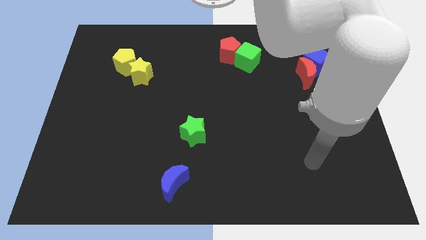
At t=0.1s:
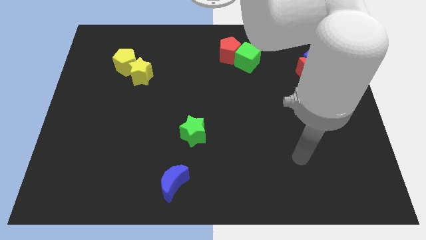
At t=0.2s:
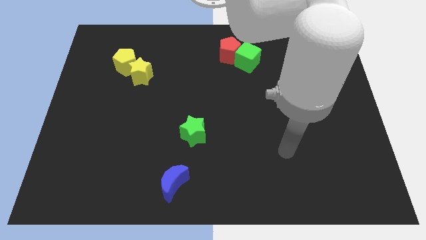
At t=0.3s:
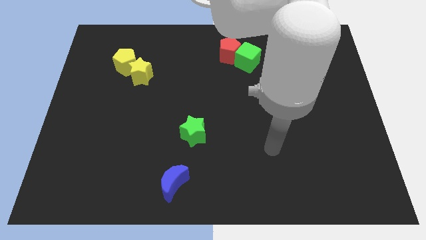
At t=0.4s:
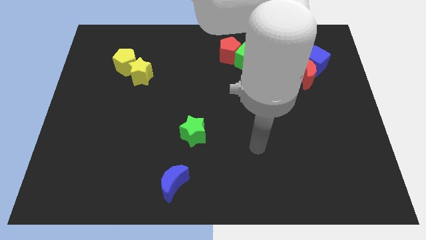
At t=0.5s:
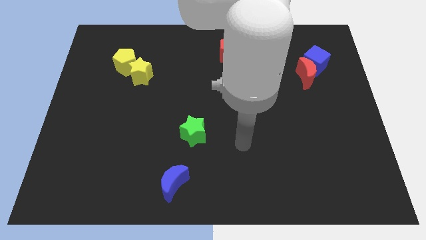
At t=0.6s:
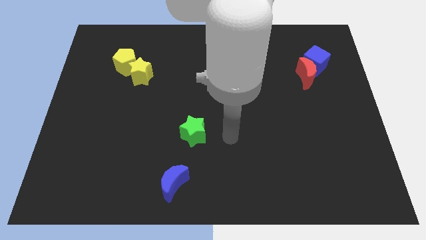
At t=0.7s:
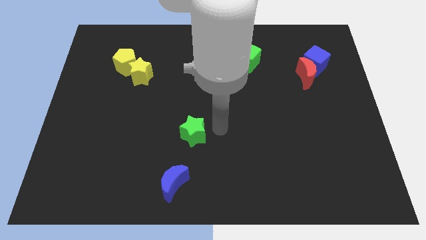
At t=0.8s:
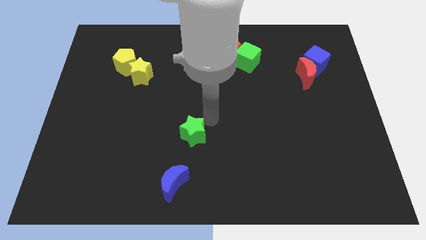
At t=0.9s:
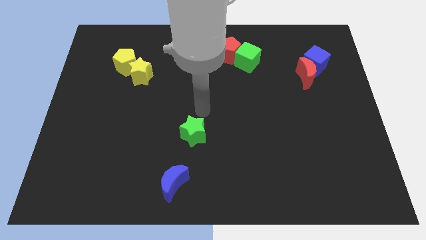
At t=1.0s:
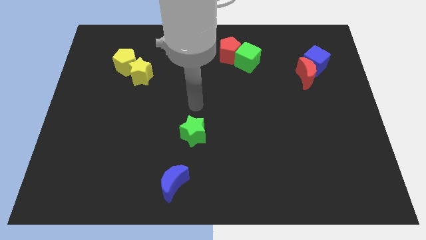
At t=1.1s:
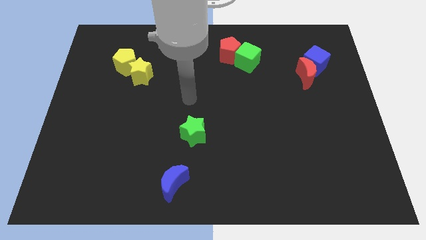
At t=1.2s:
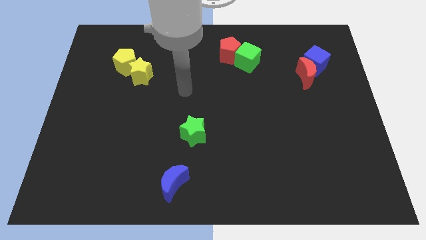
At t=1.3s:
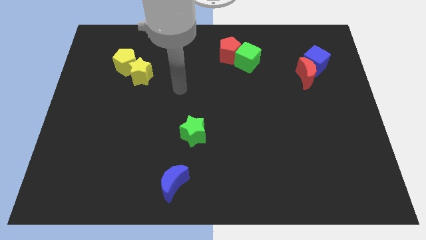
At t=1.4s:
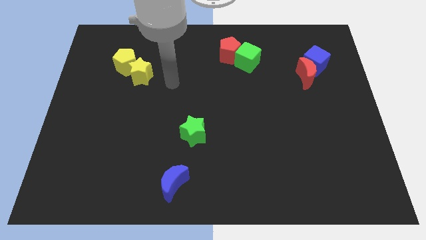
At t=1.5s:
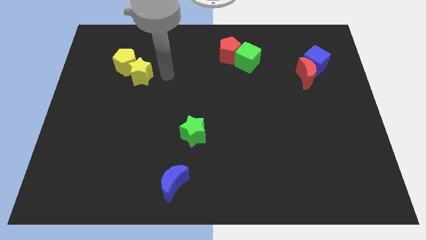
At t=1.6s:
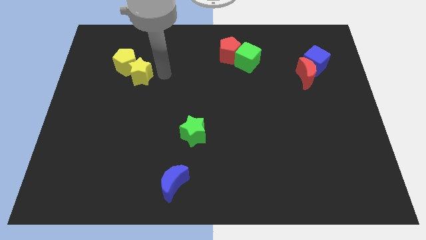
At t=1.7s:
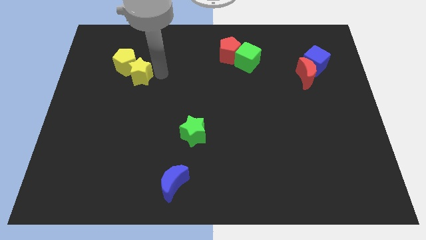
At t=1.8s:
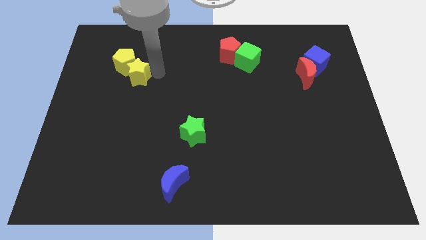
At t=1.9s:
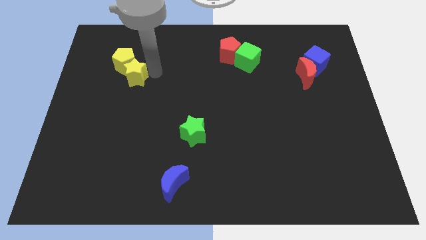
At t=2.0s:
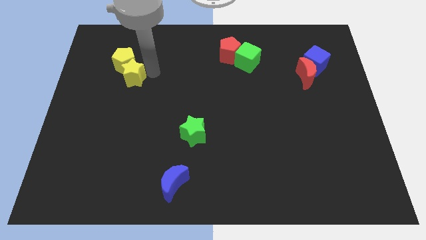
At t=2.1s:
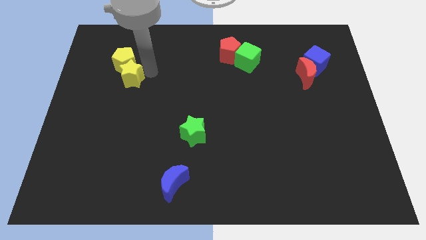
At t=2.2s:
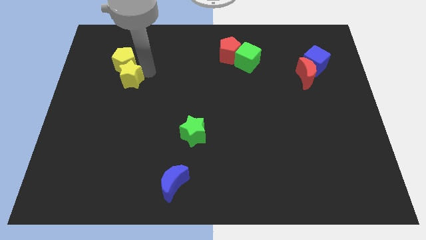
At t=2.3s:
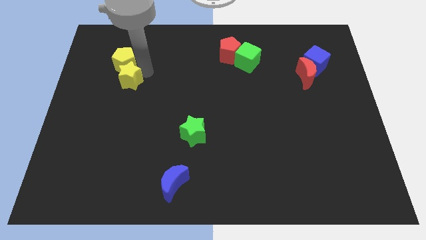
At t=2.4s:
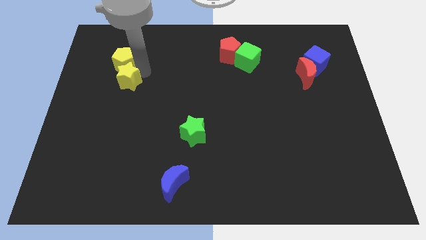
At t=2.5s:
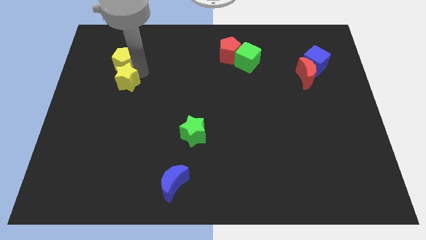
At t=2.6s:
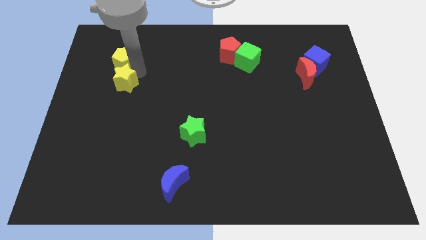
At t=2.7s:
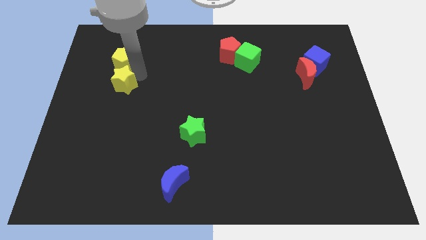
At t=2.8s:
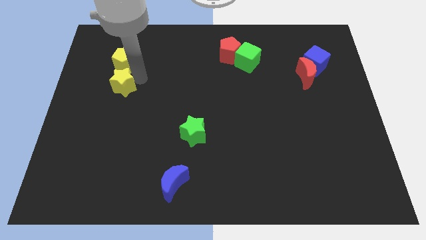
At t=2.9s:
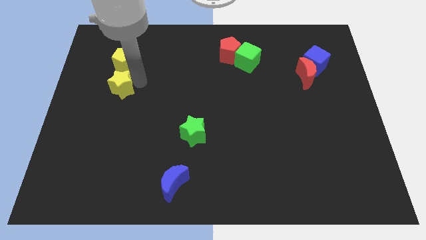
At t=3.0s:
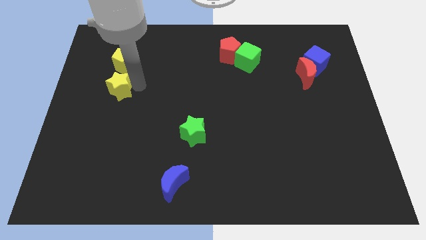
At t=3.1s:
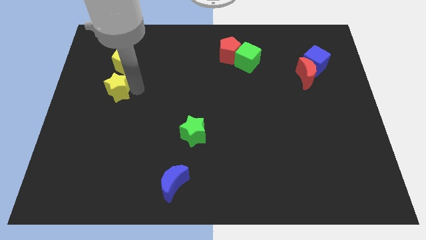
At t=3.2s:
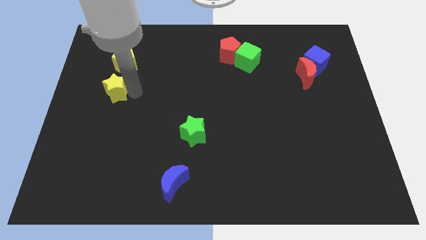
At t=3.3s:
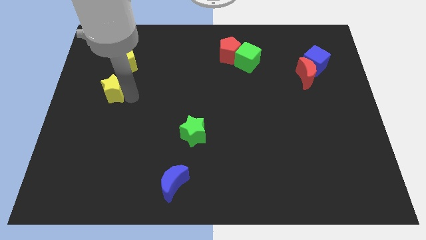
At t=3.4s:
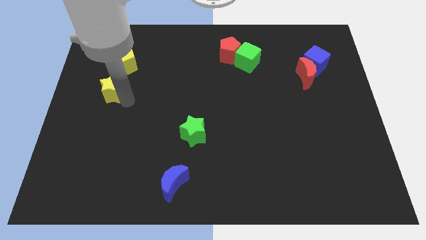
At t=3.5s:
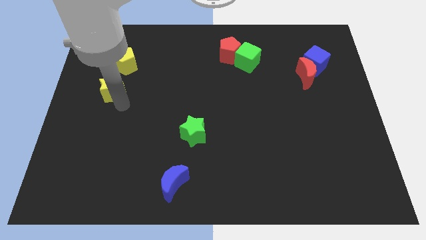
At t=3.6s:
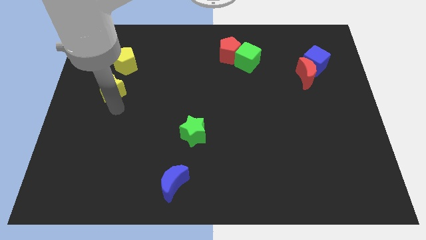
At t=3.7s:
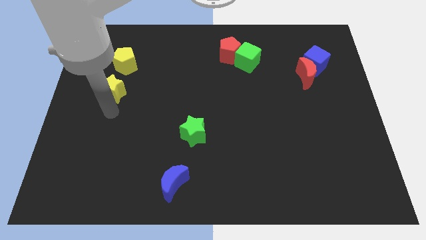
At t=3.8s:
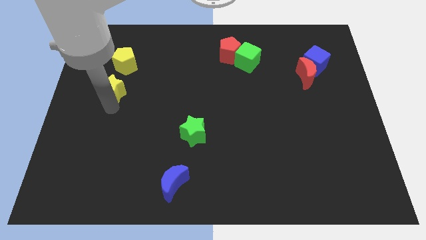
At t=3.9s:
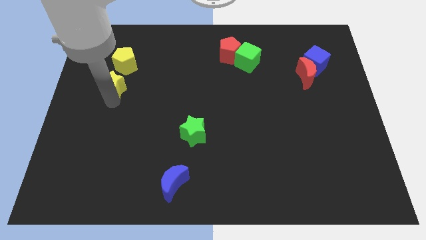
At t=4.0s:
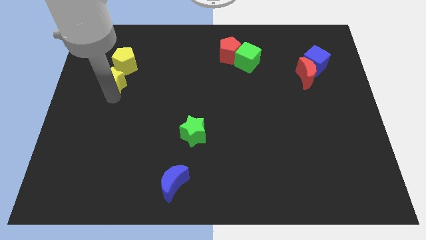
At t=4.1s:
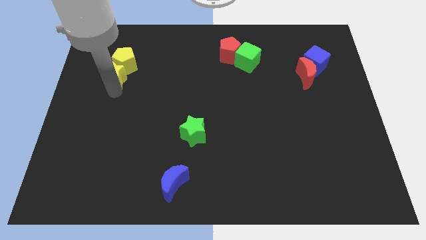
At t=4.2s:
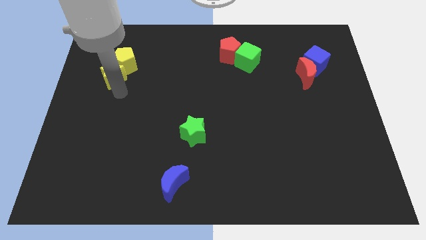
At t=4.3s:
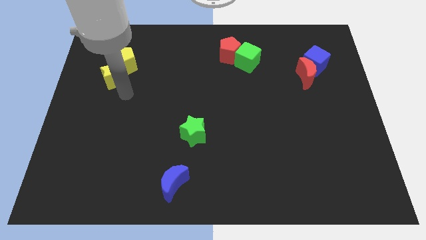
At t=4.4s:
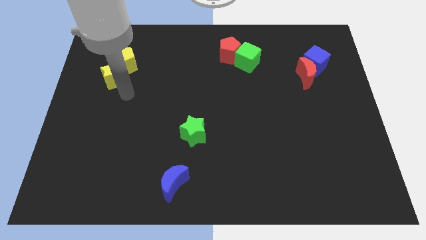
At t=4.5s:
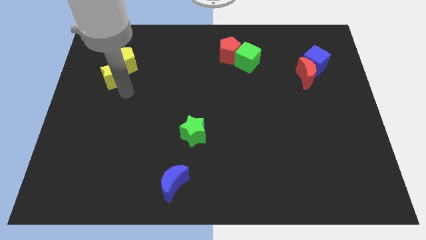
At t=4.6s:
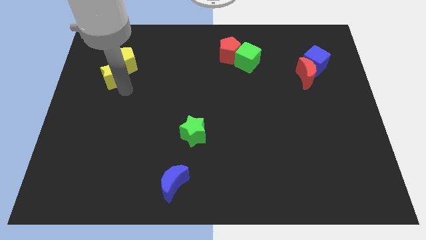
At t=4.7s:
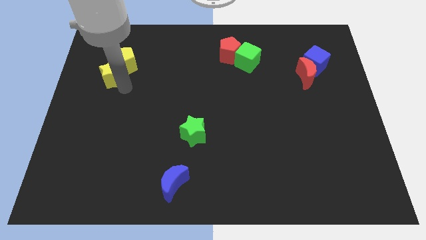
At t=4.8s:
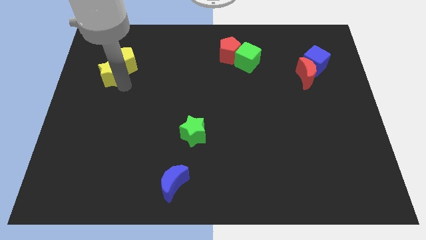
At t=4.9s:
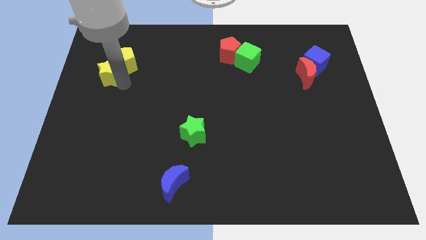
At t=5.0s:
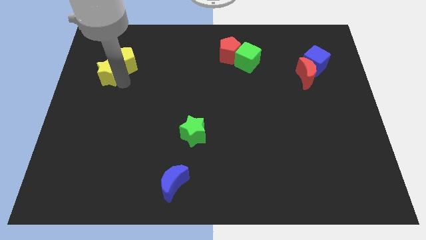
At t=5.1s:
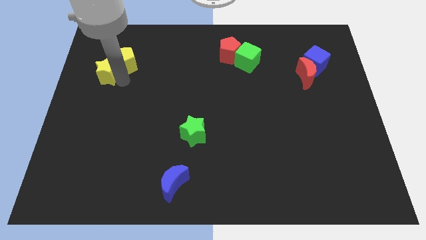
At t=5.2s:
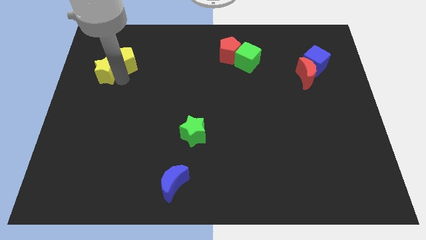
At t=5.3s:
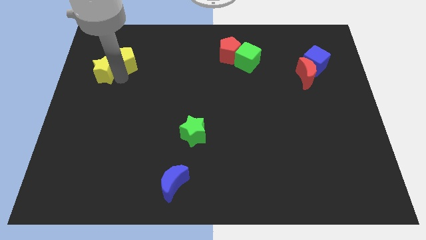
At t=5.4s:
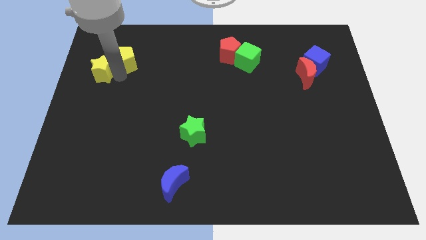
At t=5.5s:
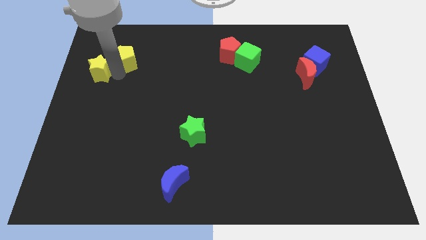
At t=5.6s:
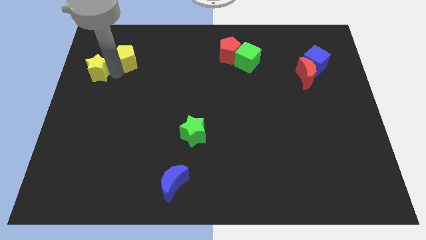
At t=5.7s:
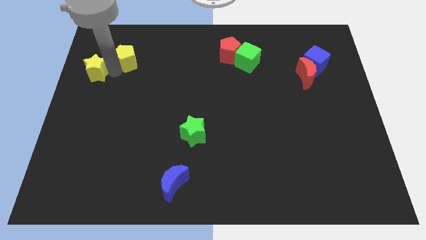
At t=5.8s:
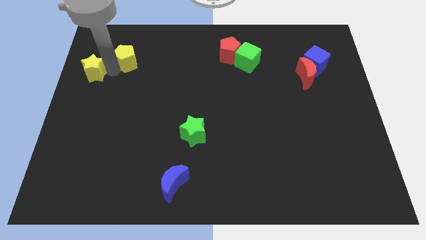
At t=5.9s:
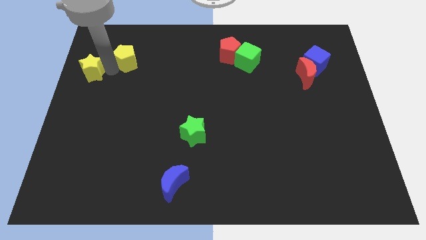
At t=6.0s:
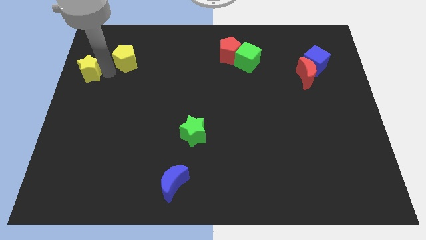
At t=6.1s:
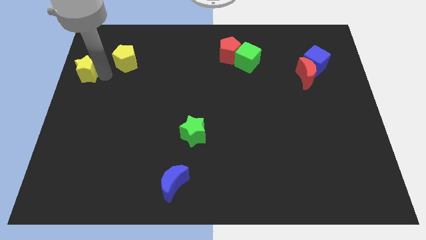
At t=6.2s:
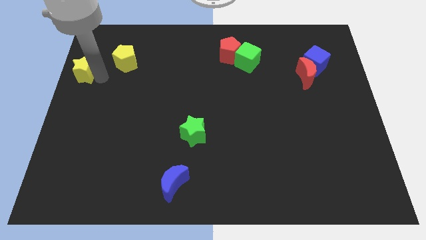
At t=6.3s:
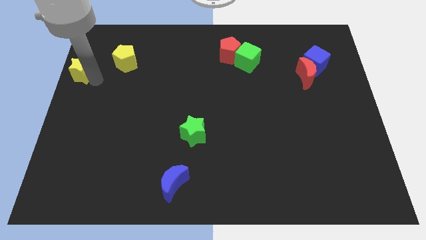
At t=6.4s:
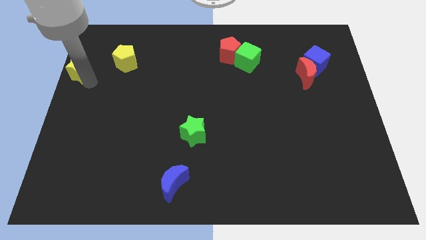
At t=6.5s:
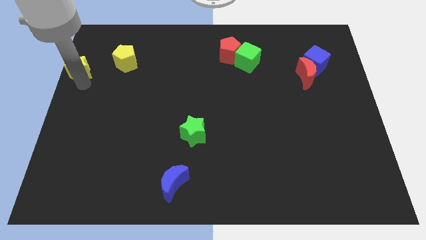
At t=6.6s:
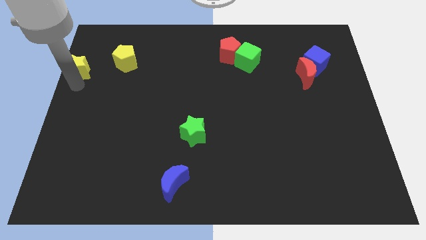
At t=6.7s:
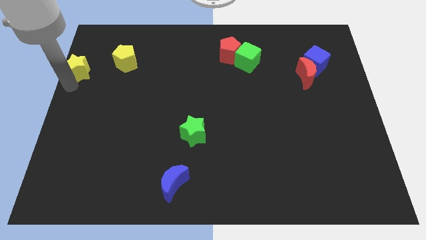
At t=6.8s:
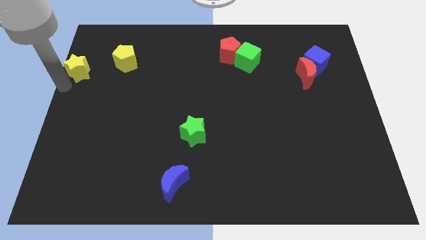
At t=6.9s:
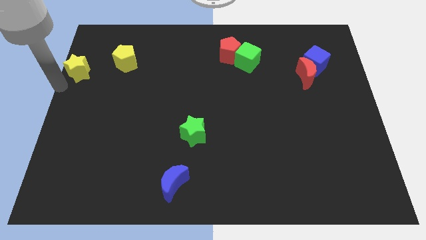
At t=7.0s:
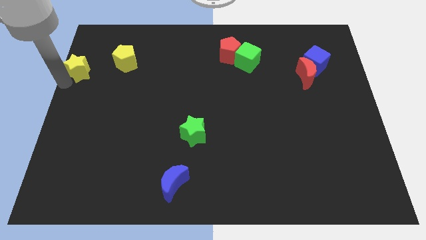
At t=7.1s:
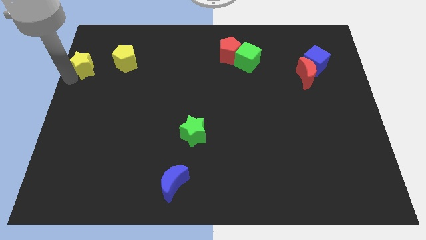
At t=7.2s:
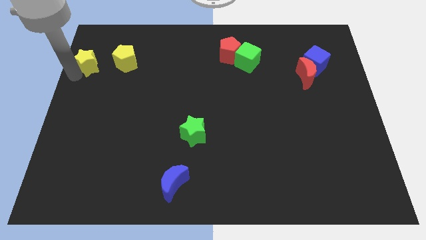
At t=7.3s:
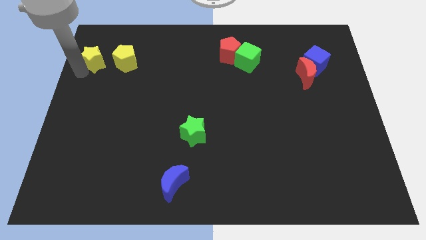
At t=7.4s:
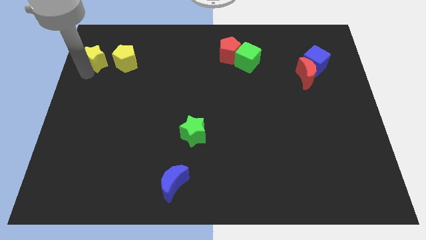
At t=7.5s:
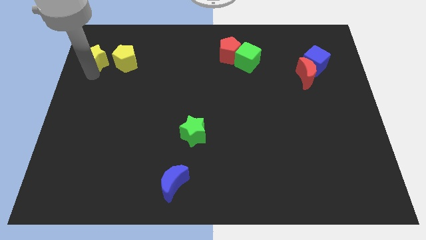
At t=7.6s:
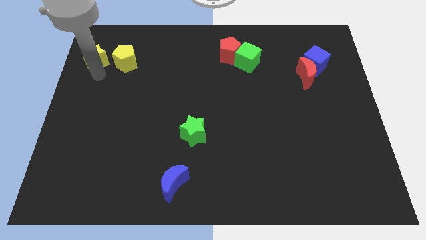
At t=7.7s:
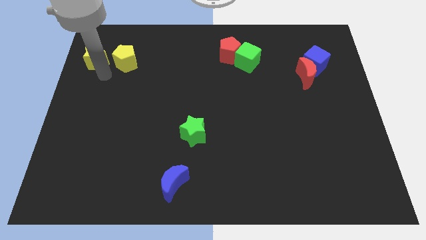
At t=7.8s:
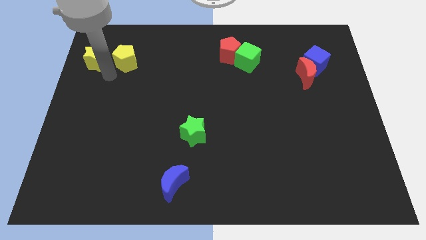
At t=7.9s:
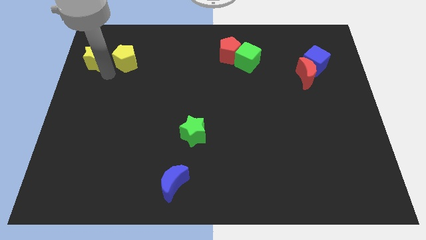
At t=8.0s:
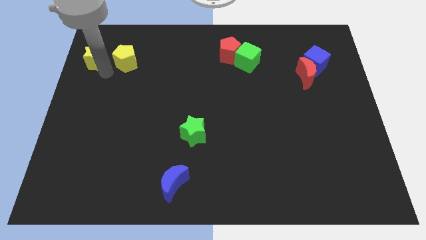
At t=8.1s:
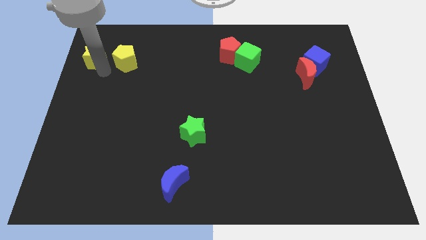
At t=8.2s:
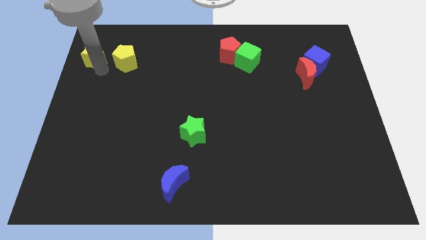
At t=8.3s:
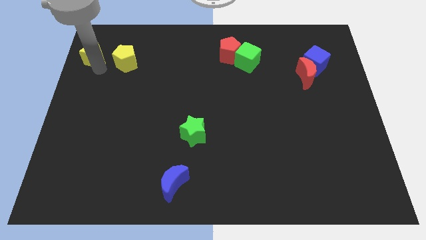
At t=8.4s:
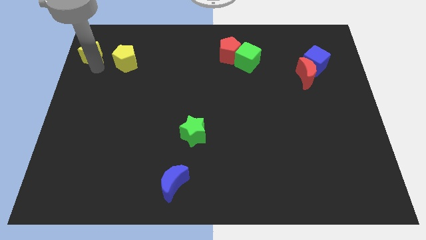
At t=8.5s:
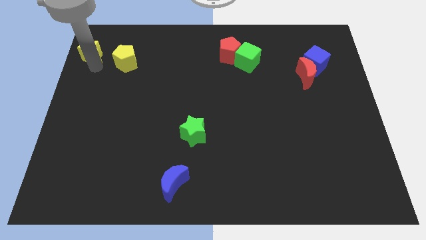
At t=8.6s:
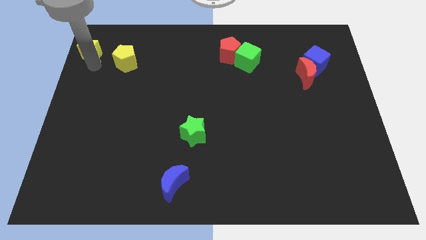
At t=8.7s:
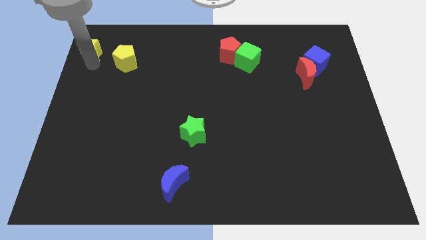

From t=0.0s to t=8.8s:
put the yellow star to the upper left corner
